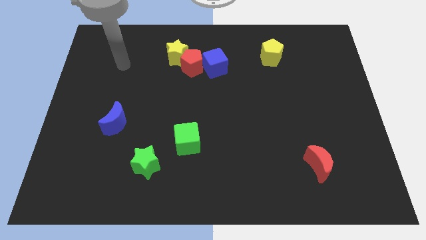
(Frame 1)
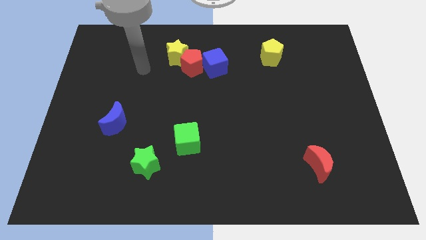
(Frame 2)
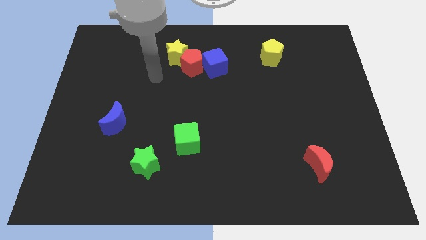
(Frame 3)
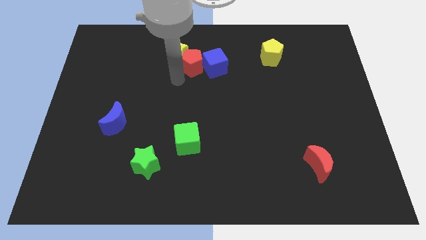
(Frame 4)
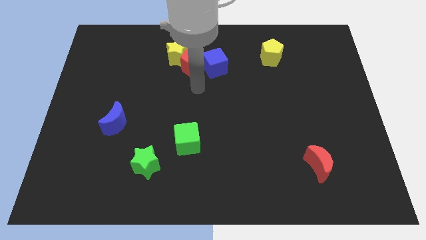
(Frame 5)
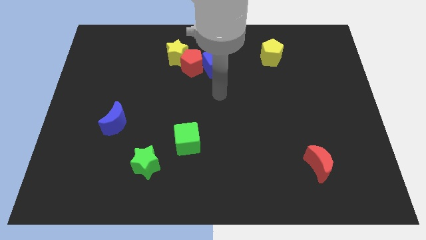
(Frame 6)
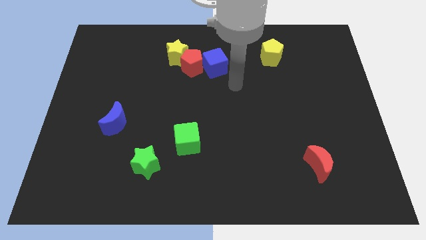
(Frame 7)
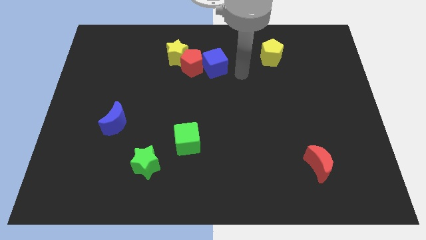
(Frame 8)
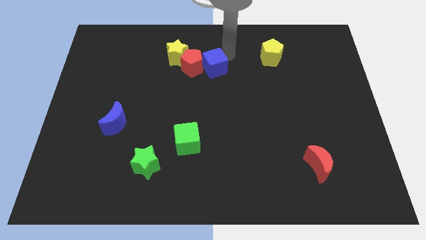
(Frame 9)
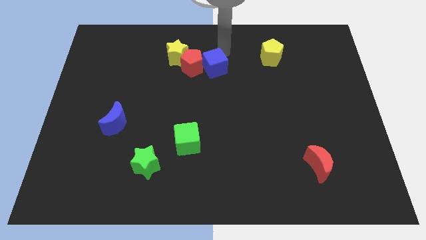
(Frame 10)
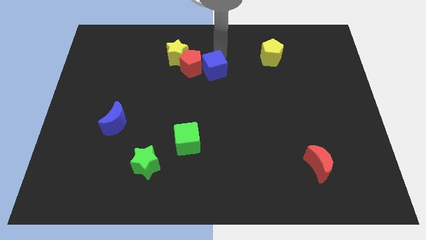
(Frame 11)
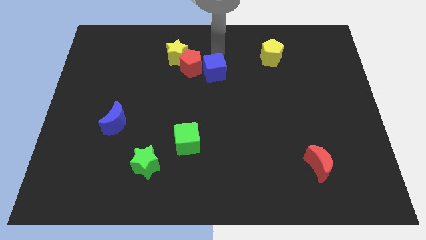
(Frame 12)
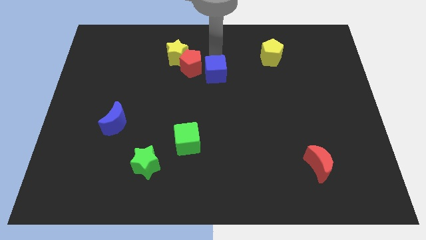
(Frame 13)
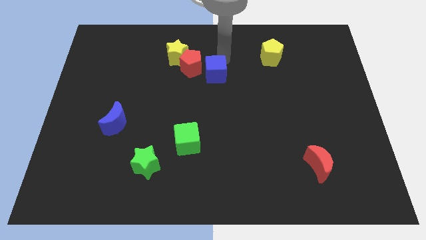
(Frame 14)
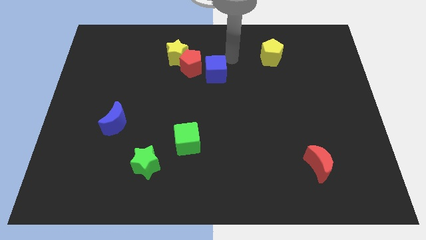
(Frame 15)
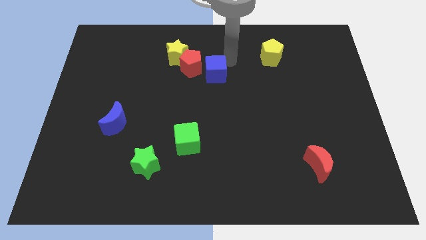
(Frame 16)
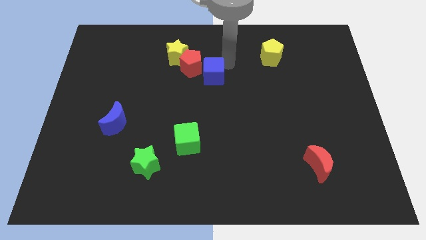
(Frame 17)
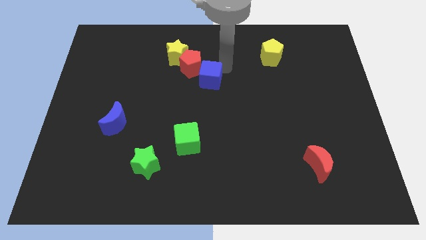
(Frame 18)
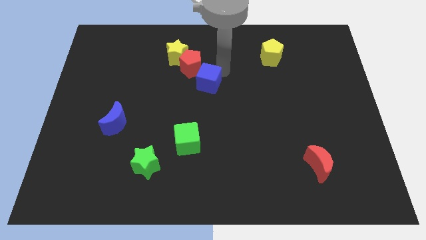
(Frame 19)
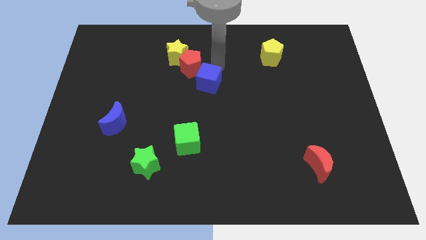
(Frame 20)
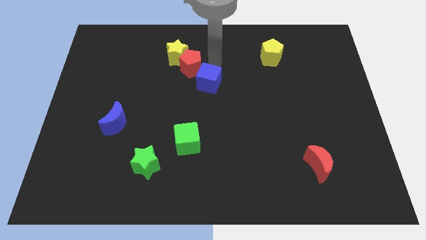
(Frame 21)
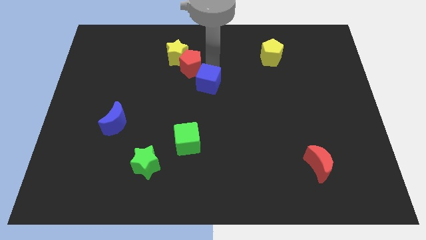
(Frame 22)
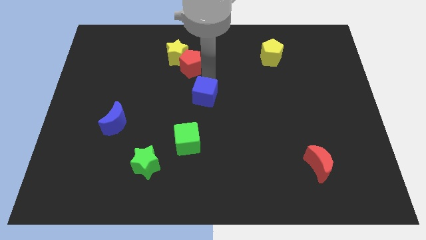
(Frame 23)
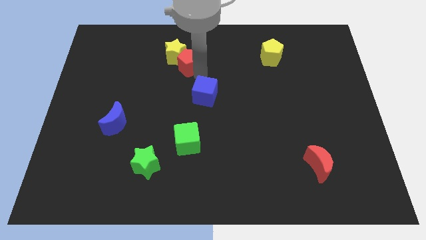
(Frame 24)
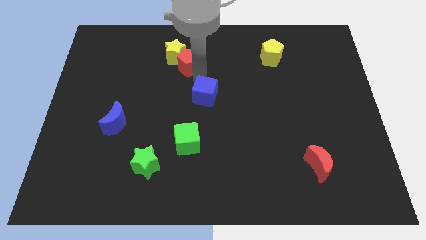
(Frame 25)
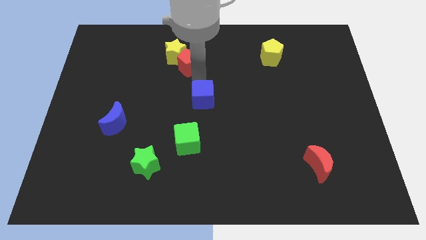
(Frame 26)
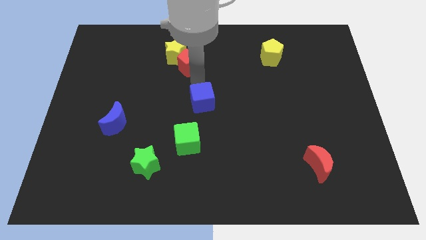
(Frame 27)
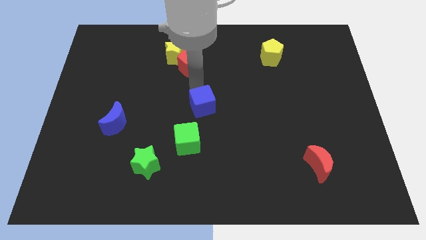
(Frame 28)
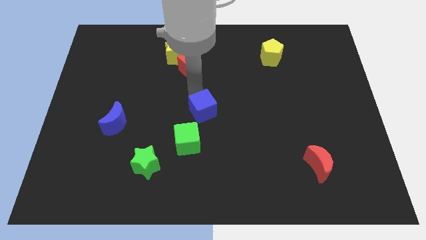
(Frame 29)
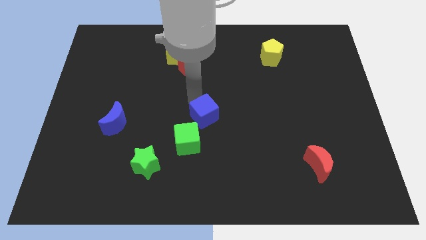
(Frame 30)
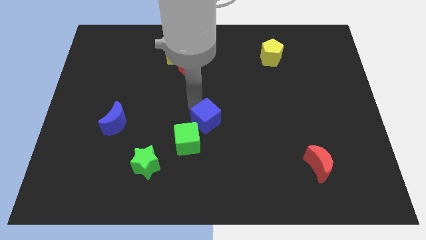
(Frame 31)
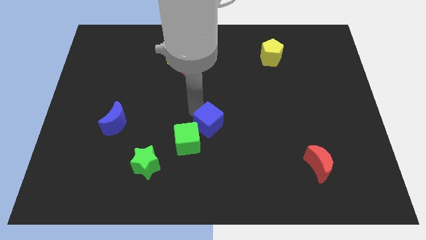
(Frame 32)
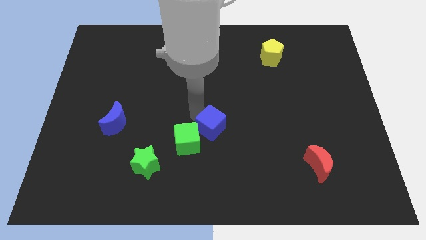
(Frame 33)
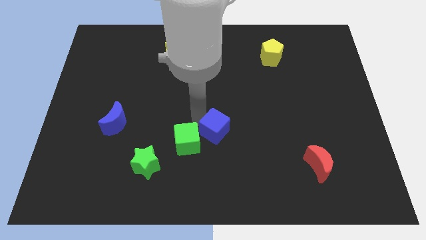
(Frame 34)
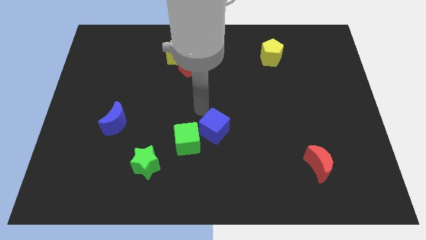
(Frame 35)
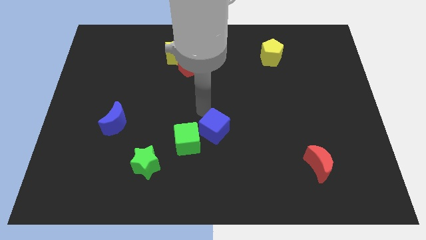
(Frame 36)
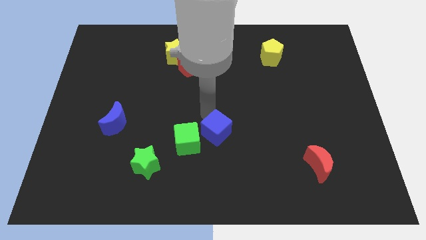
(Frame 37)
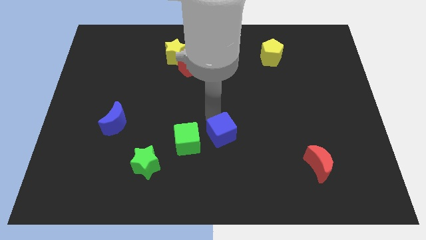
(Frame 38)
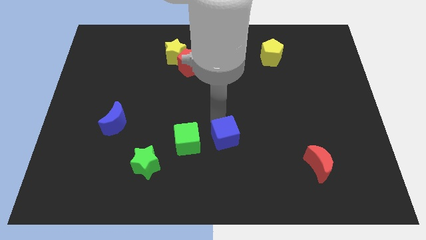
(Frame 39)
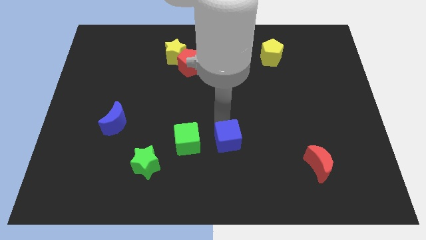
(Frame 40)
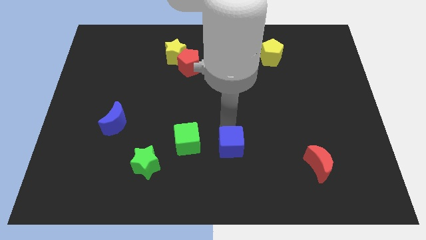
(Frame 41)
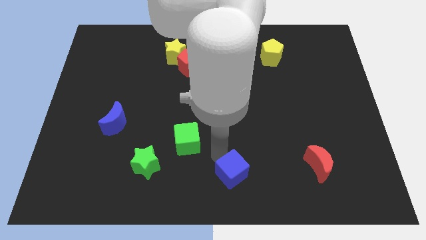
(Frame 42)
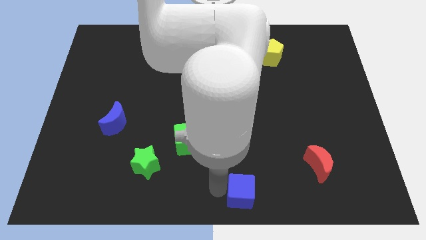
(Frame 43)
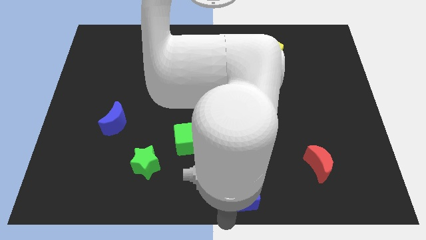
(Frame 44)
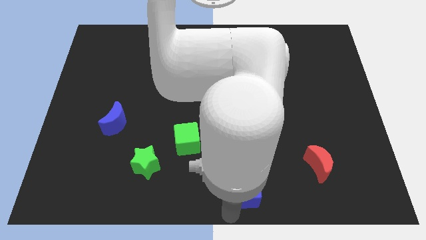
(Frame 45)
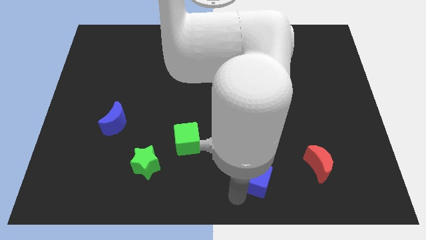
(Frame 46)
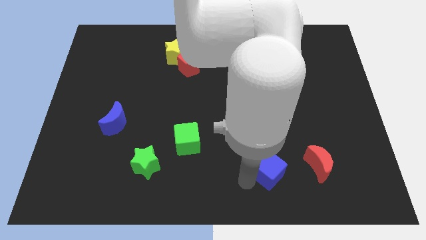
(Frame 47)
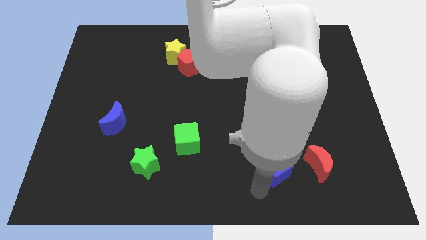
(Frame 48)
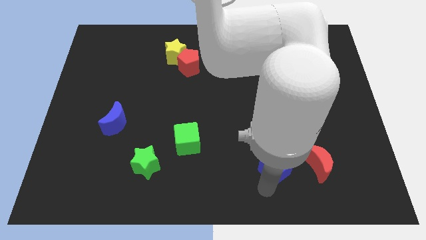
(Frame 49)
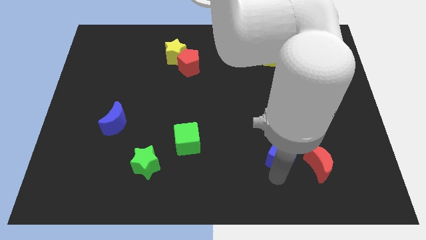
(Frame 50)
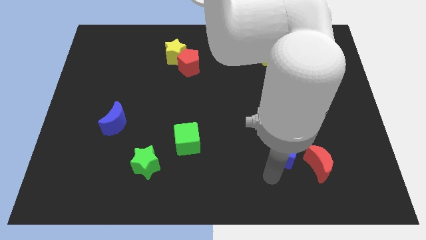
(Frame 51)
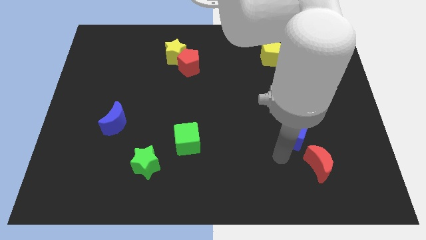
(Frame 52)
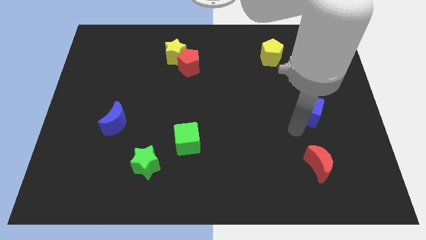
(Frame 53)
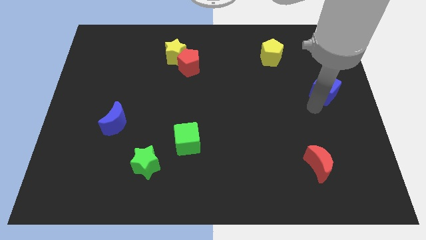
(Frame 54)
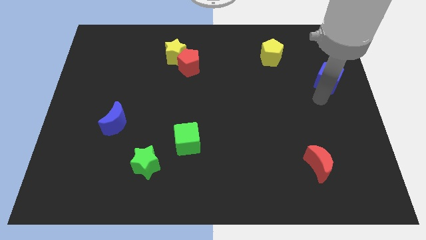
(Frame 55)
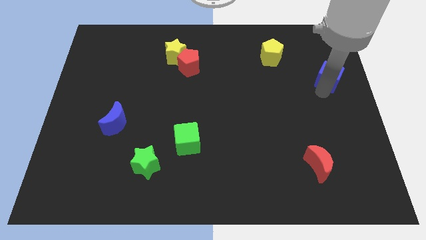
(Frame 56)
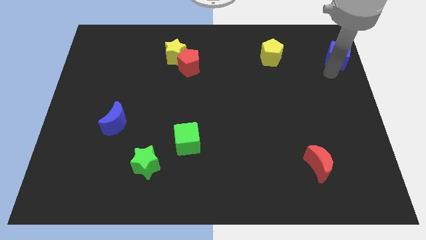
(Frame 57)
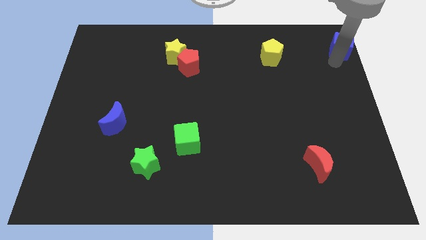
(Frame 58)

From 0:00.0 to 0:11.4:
push the blue cube to the top right corner

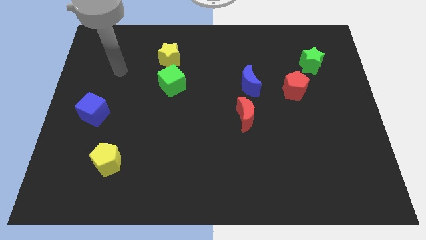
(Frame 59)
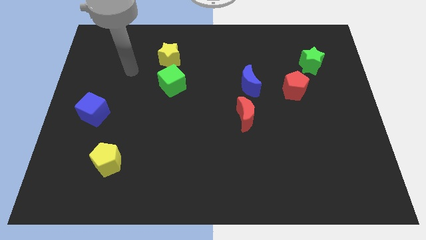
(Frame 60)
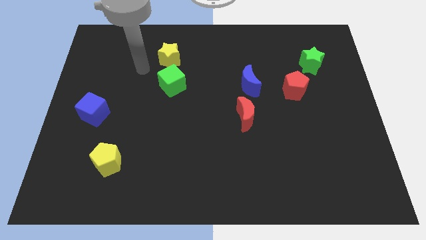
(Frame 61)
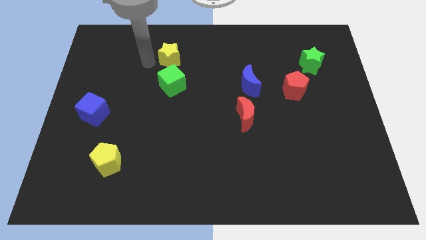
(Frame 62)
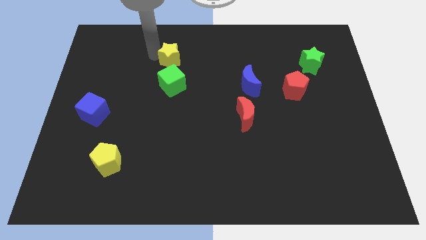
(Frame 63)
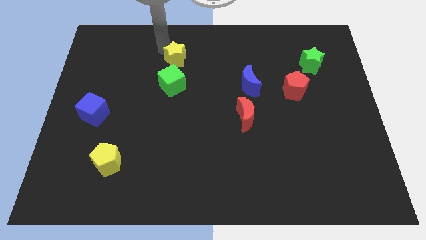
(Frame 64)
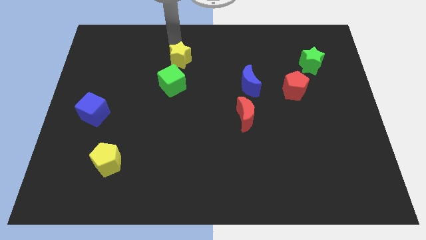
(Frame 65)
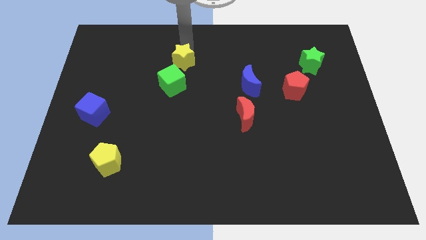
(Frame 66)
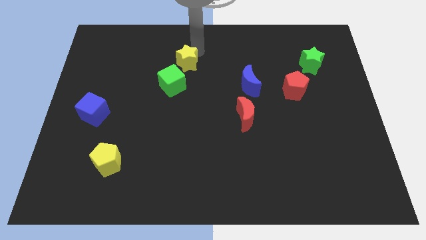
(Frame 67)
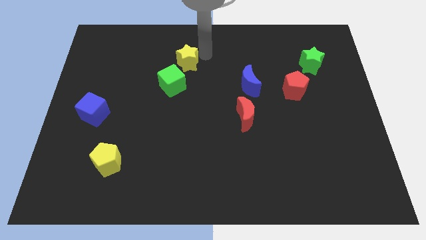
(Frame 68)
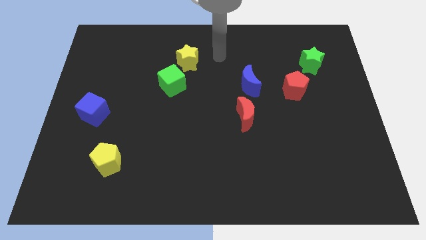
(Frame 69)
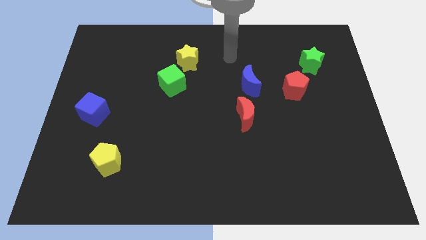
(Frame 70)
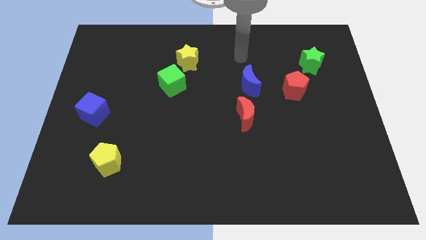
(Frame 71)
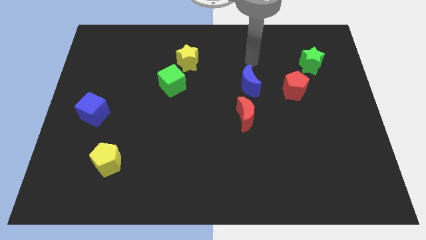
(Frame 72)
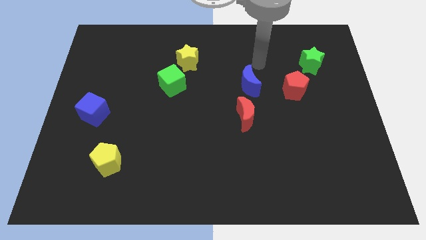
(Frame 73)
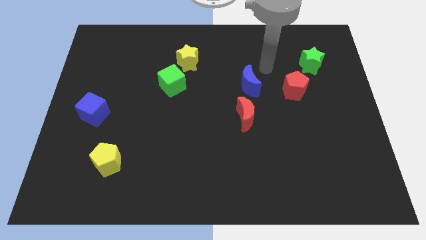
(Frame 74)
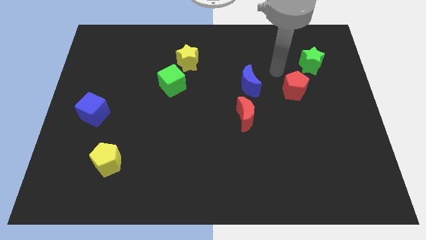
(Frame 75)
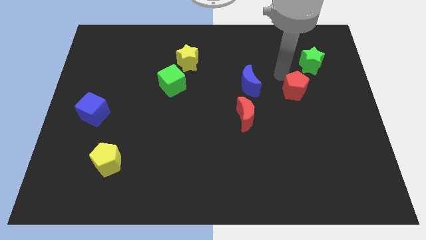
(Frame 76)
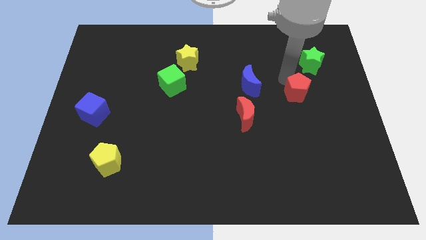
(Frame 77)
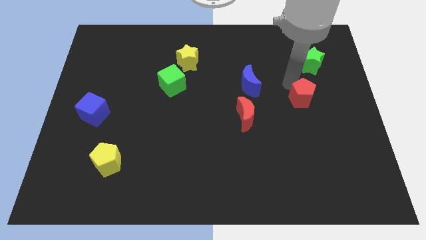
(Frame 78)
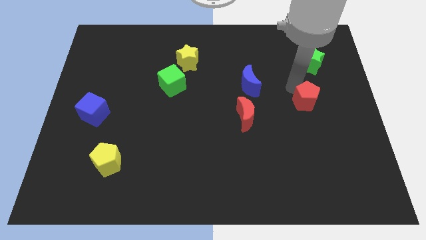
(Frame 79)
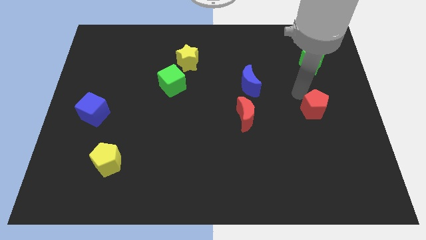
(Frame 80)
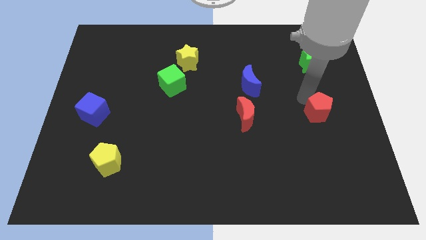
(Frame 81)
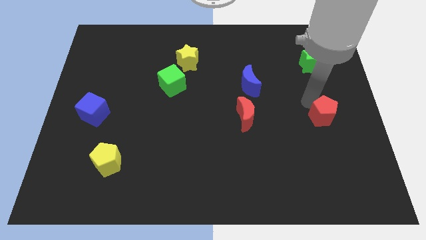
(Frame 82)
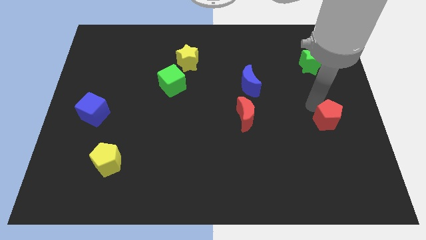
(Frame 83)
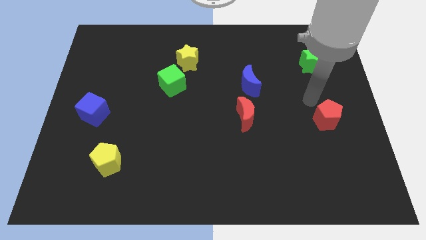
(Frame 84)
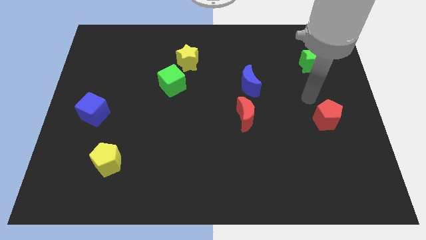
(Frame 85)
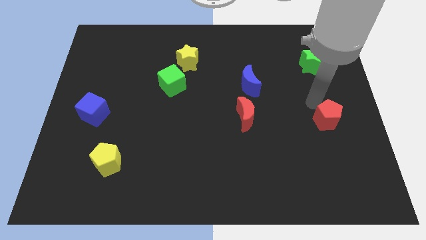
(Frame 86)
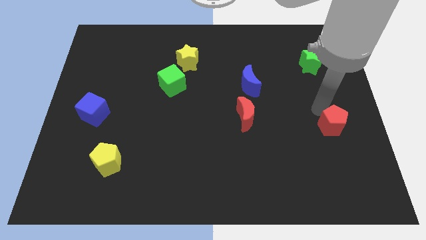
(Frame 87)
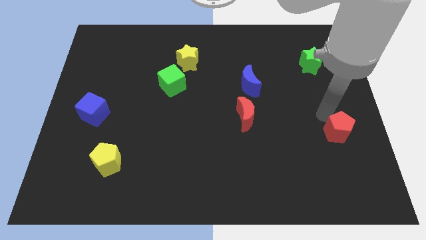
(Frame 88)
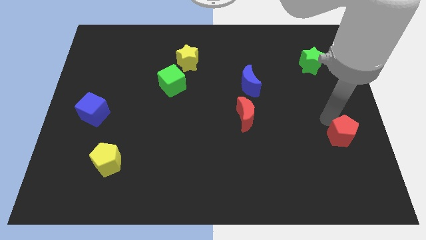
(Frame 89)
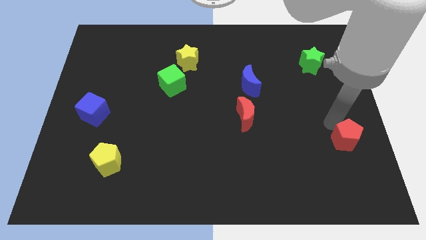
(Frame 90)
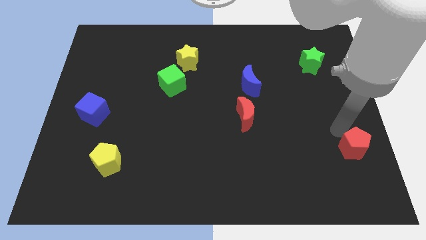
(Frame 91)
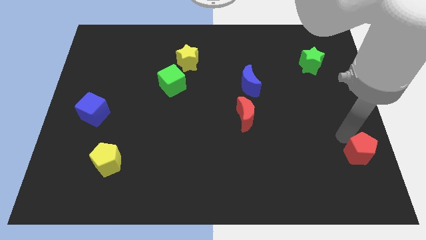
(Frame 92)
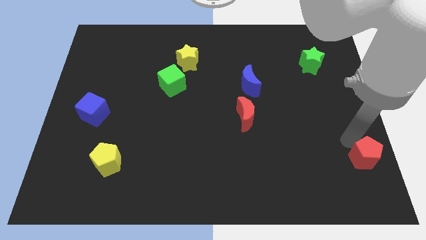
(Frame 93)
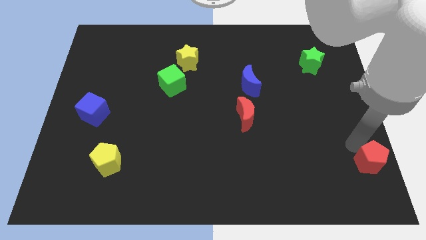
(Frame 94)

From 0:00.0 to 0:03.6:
move the red pentagon to the bottom right corner
